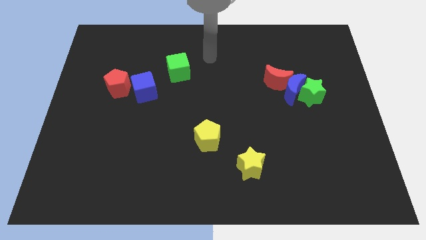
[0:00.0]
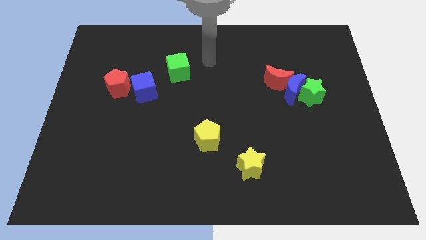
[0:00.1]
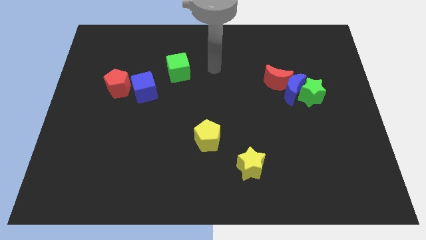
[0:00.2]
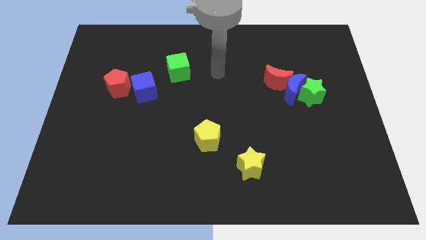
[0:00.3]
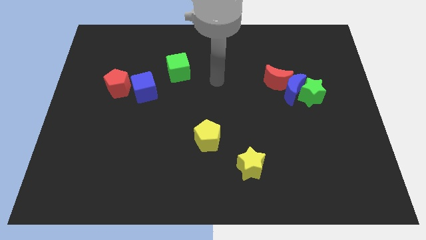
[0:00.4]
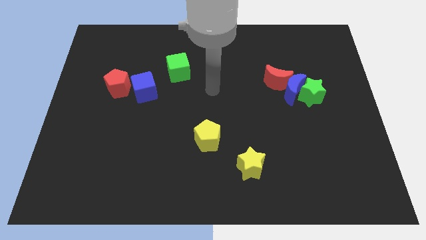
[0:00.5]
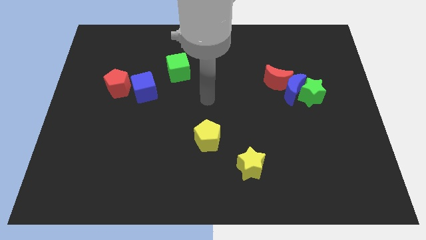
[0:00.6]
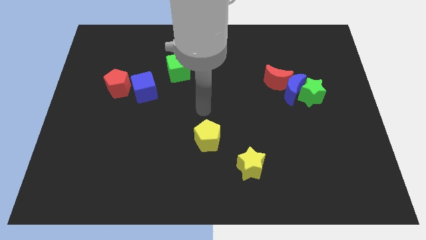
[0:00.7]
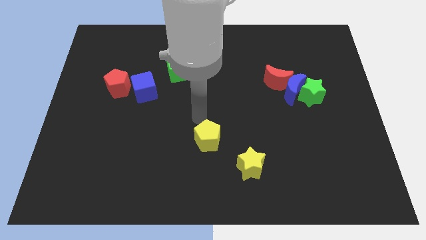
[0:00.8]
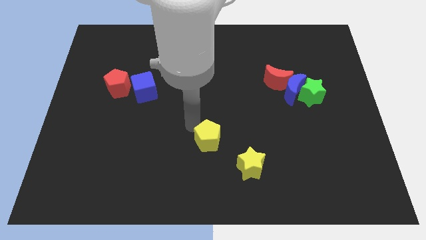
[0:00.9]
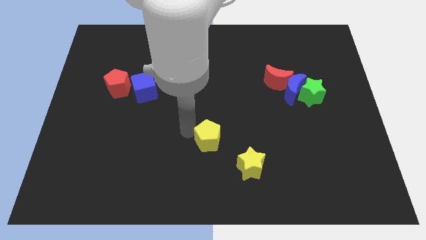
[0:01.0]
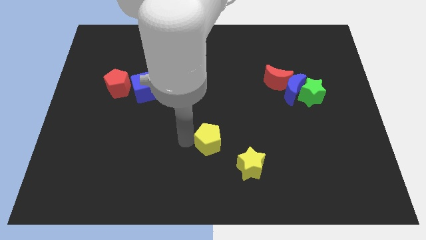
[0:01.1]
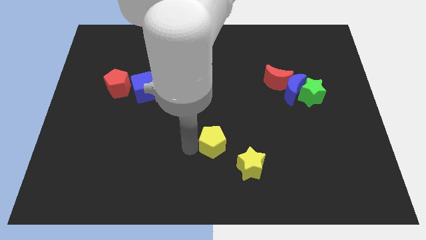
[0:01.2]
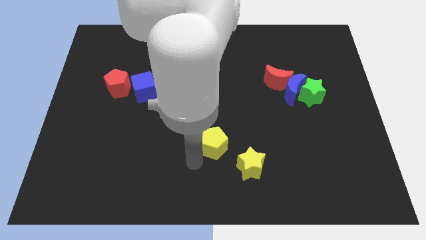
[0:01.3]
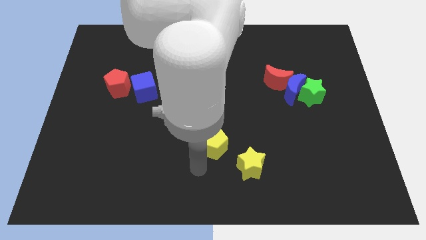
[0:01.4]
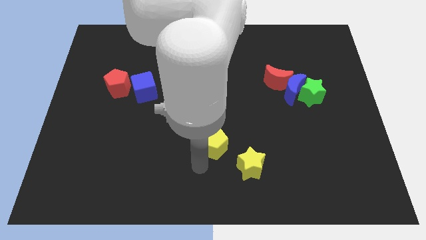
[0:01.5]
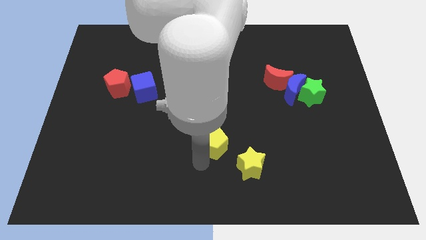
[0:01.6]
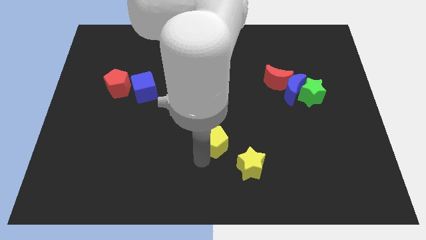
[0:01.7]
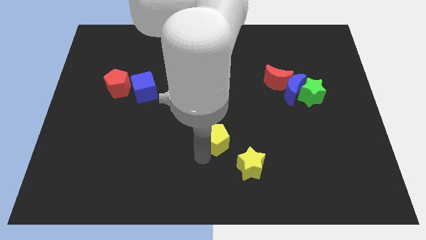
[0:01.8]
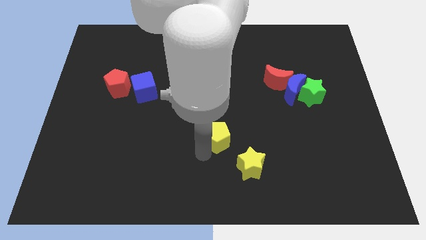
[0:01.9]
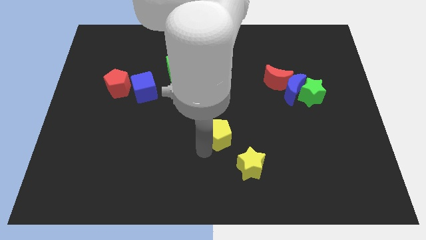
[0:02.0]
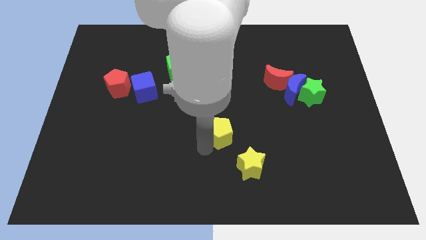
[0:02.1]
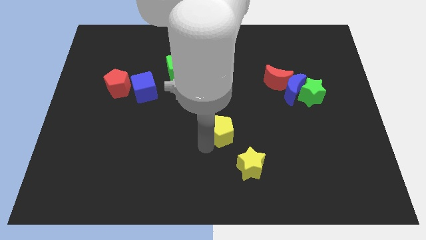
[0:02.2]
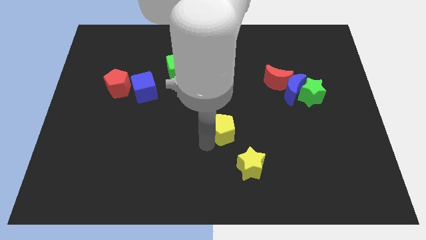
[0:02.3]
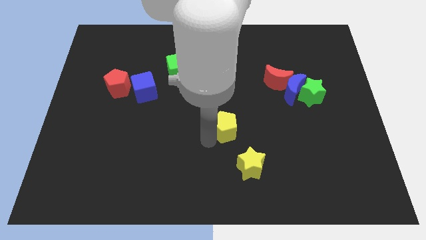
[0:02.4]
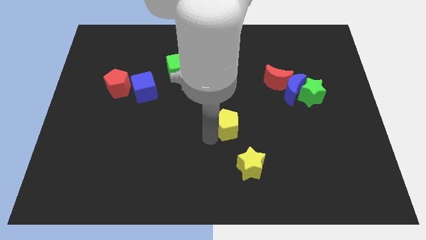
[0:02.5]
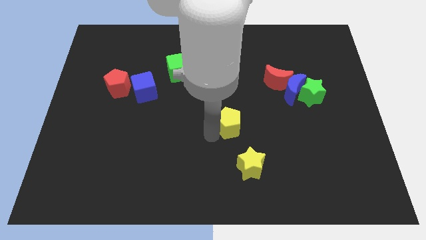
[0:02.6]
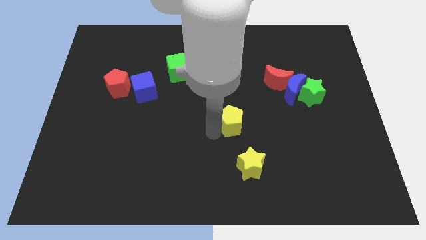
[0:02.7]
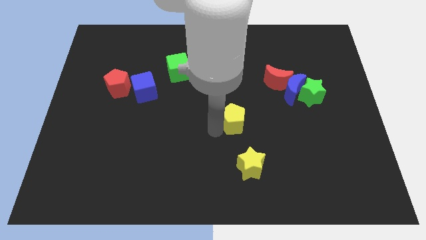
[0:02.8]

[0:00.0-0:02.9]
push the yellow pentagon a little upwards and then right

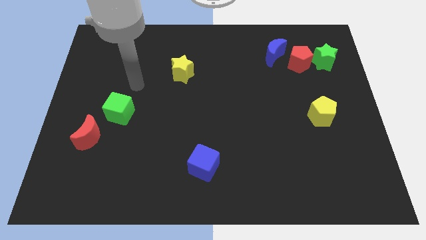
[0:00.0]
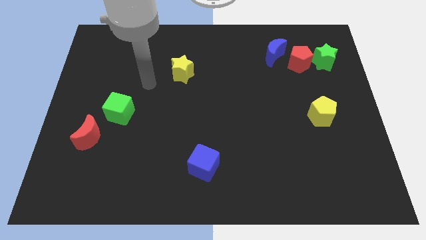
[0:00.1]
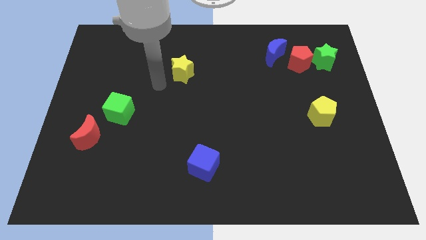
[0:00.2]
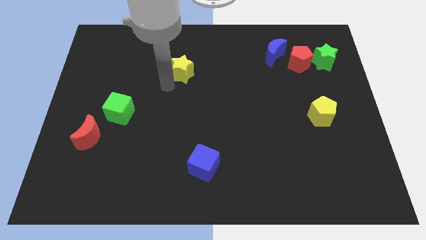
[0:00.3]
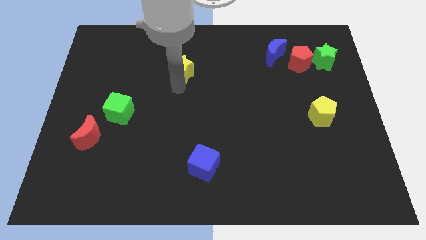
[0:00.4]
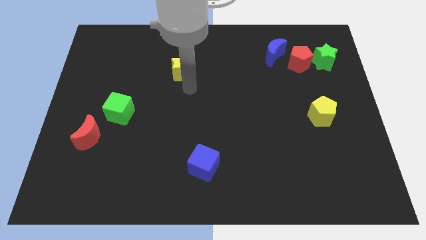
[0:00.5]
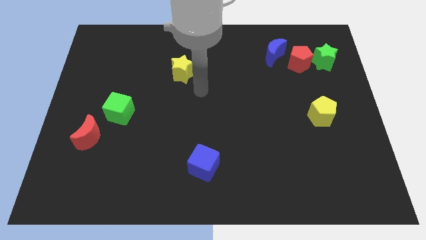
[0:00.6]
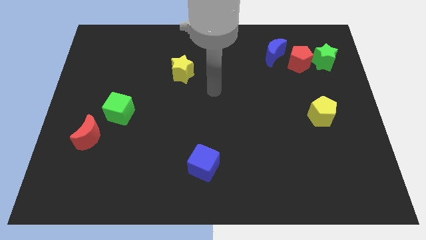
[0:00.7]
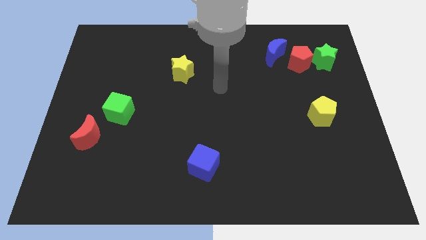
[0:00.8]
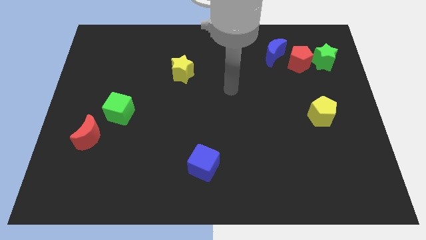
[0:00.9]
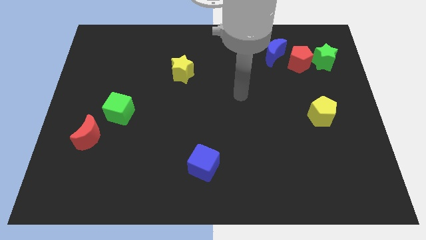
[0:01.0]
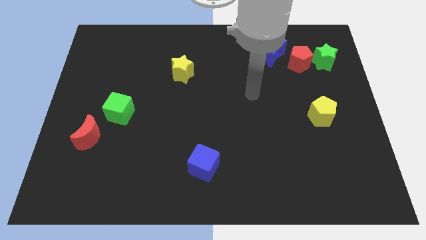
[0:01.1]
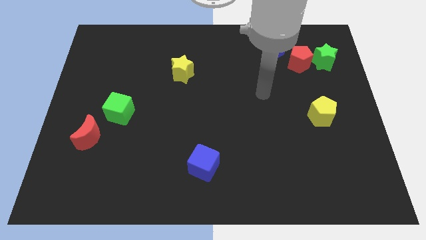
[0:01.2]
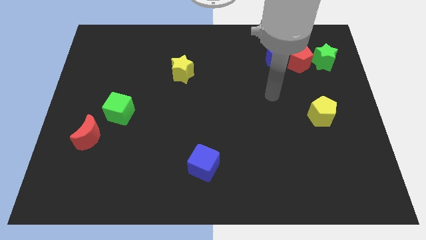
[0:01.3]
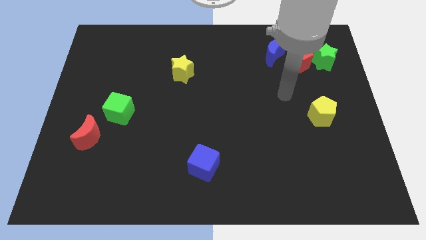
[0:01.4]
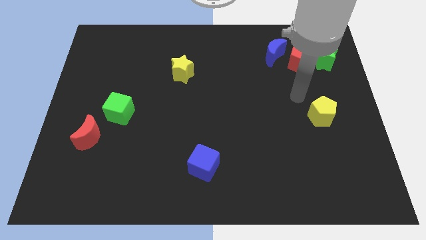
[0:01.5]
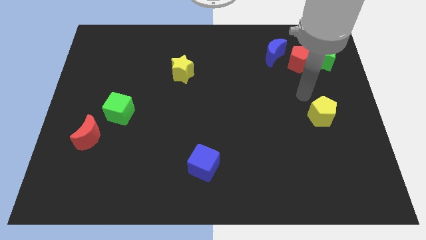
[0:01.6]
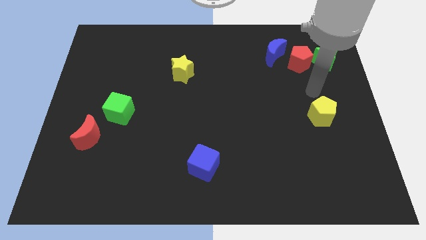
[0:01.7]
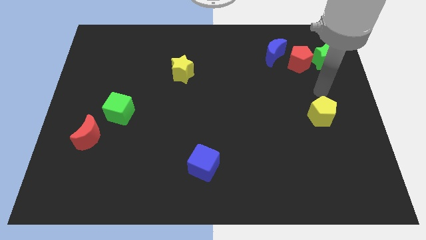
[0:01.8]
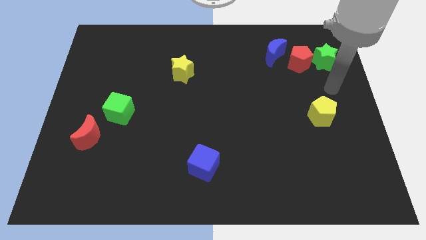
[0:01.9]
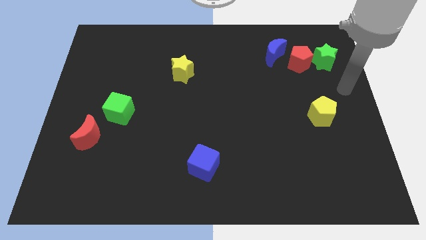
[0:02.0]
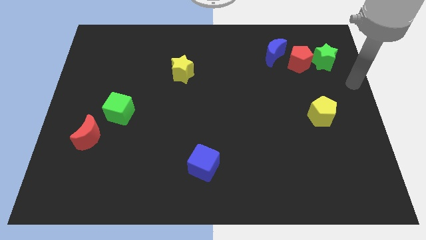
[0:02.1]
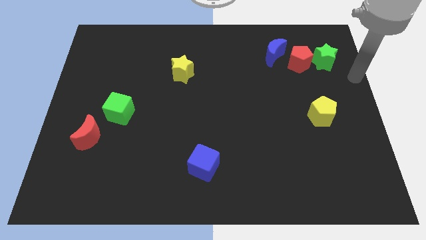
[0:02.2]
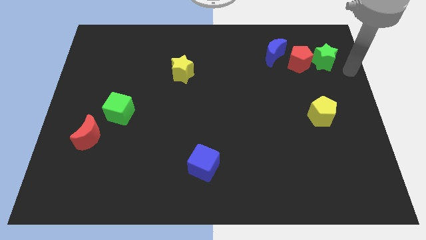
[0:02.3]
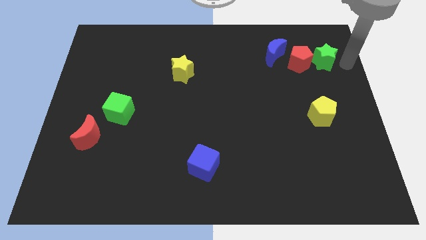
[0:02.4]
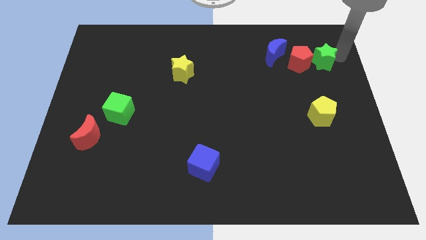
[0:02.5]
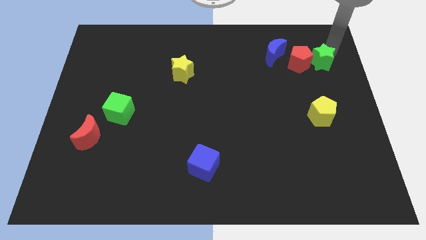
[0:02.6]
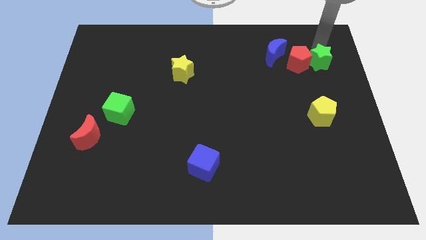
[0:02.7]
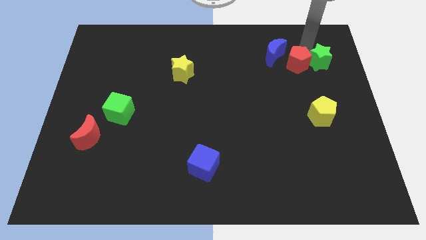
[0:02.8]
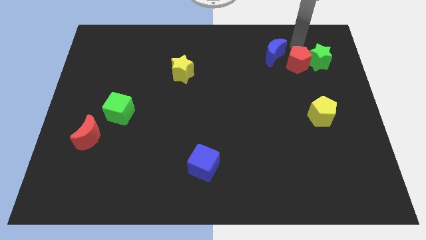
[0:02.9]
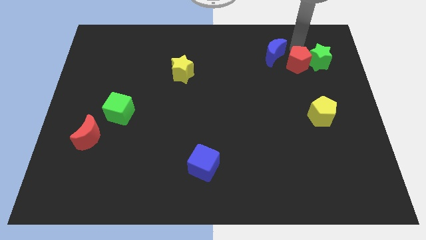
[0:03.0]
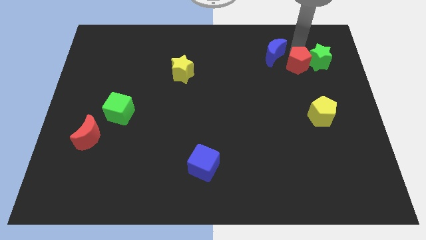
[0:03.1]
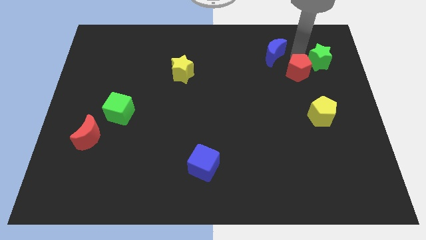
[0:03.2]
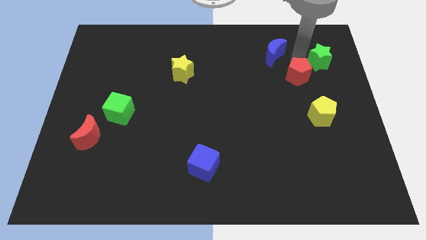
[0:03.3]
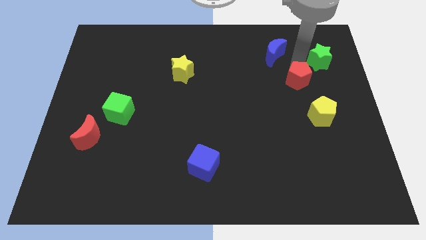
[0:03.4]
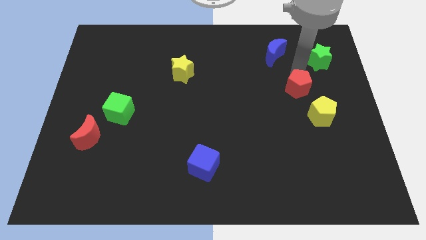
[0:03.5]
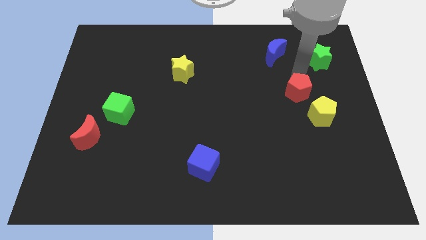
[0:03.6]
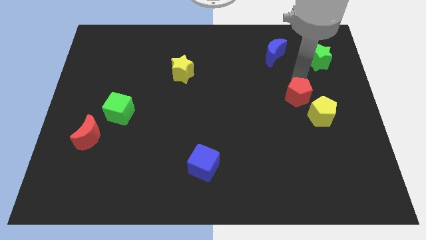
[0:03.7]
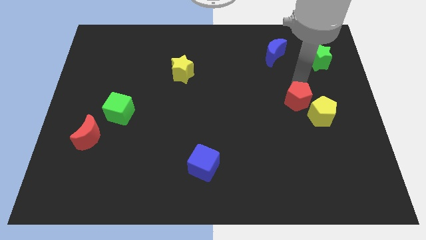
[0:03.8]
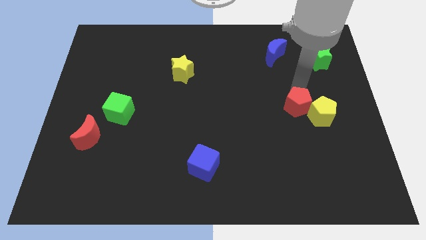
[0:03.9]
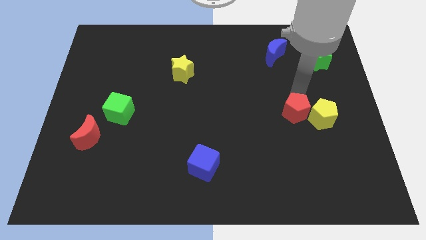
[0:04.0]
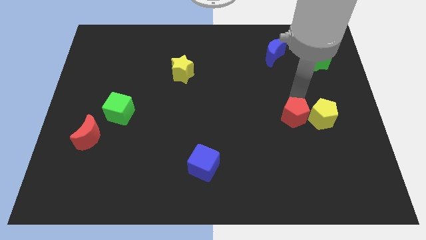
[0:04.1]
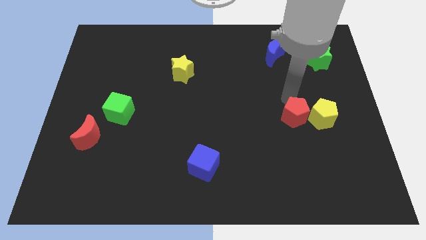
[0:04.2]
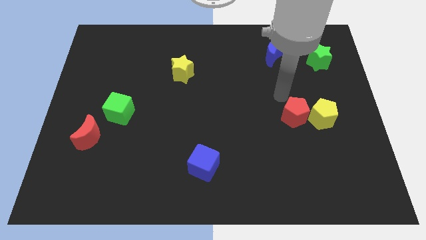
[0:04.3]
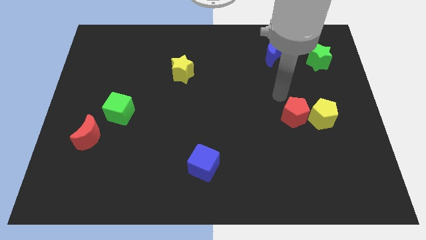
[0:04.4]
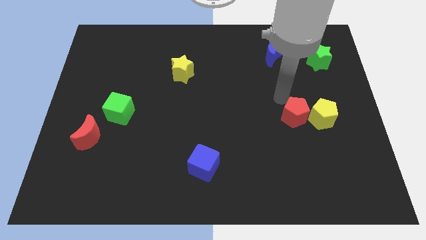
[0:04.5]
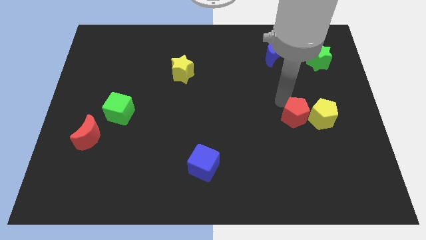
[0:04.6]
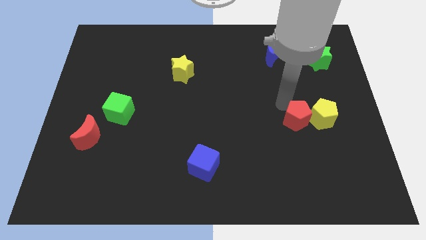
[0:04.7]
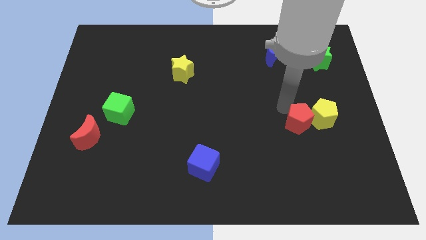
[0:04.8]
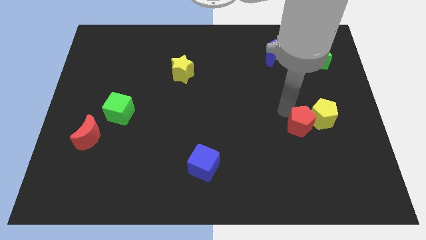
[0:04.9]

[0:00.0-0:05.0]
slide the red pentagon down

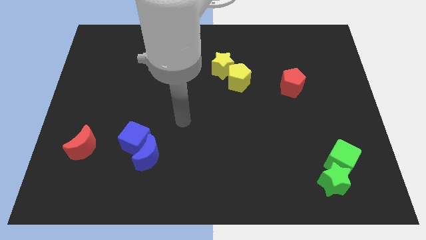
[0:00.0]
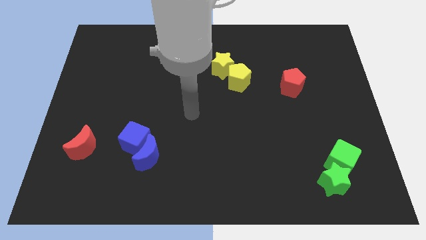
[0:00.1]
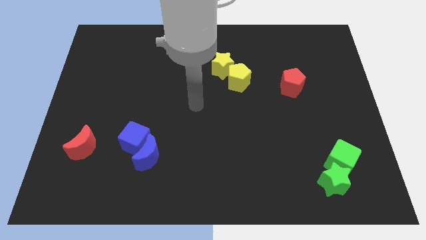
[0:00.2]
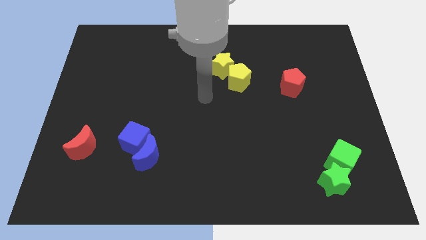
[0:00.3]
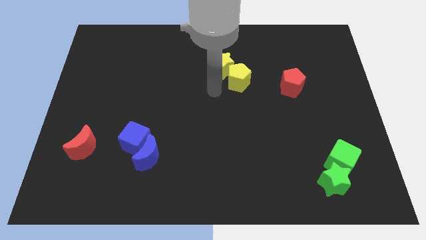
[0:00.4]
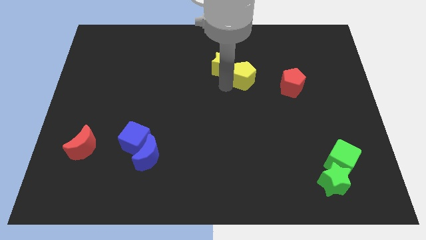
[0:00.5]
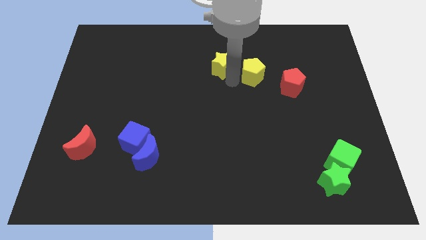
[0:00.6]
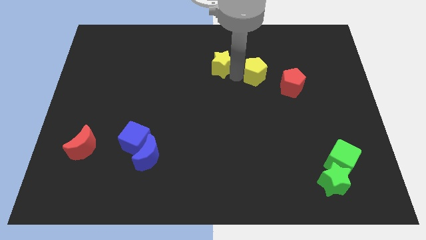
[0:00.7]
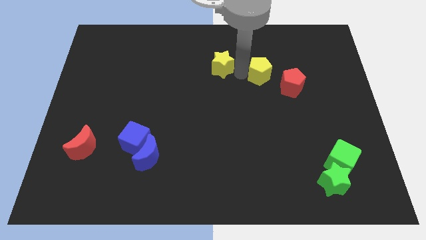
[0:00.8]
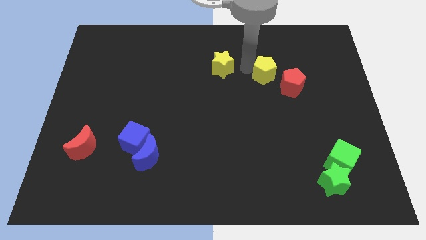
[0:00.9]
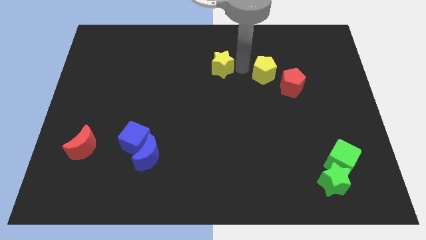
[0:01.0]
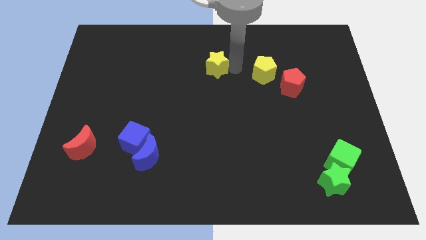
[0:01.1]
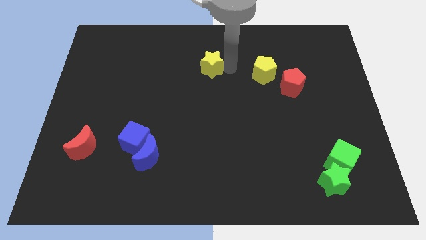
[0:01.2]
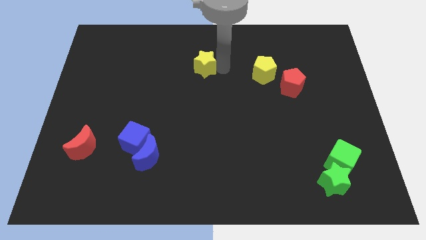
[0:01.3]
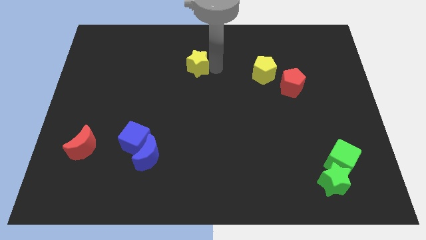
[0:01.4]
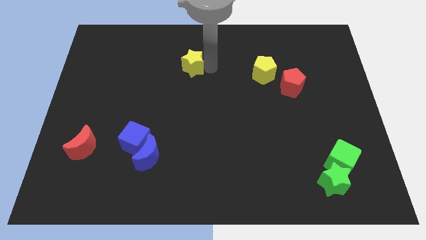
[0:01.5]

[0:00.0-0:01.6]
move the yellow star a little left
